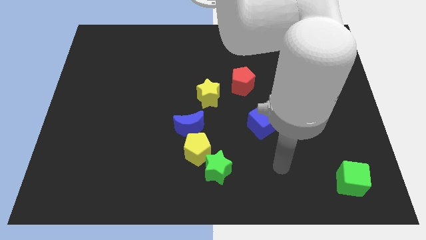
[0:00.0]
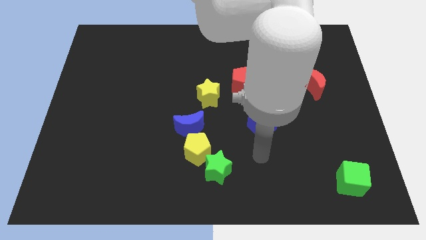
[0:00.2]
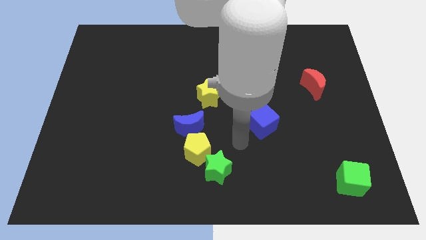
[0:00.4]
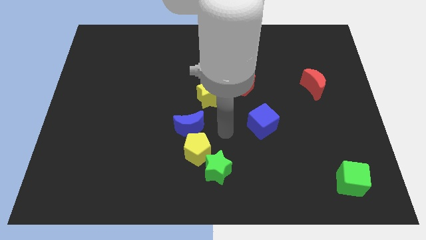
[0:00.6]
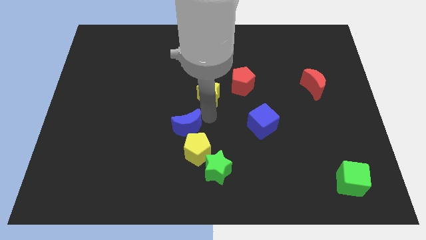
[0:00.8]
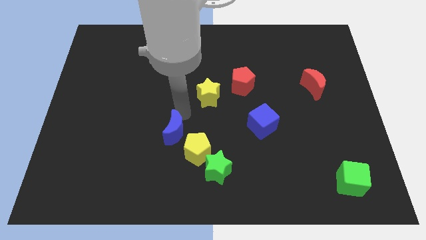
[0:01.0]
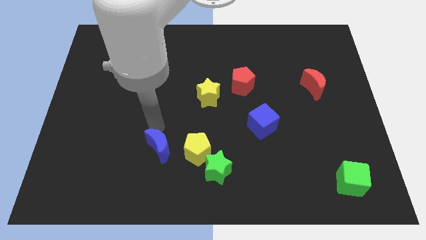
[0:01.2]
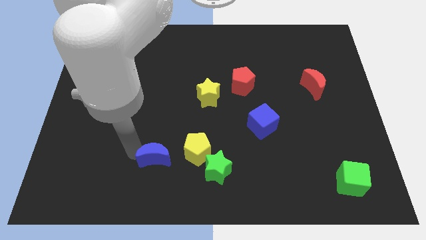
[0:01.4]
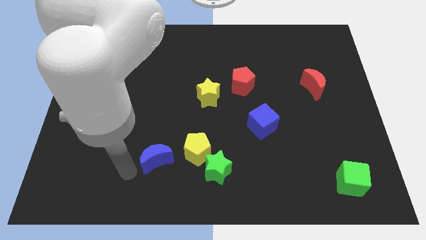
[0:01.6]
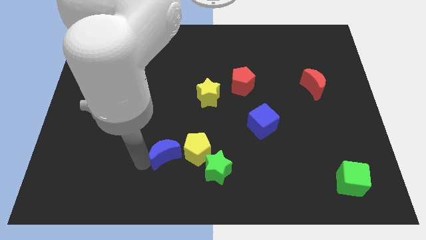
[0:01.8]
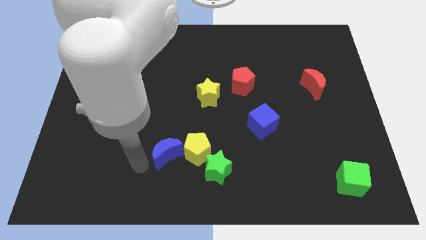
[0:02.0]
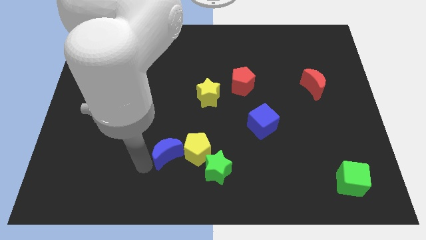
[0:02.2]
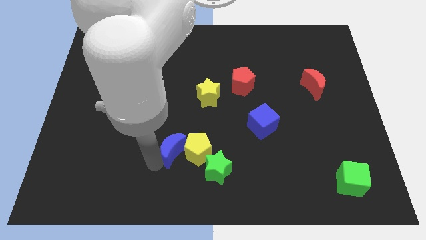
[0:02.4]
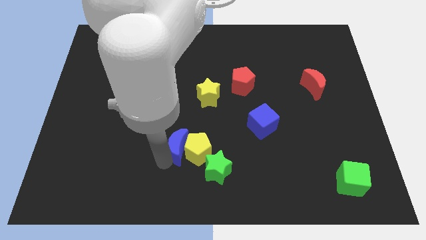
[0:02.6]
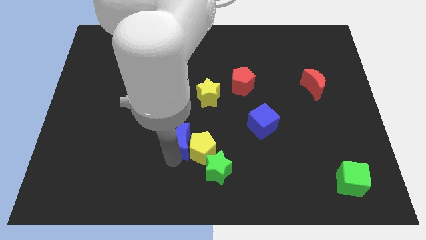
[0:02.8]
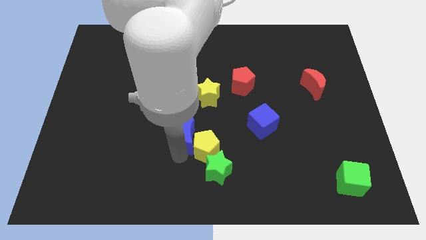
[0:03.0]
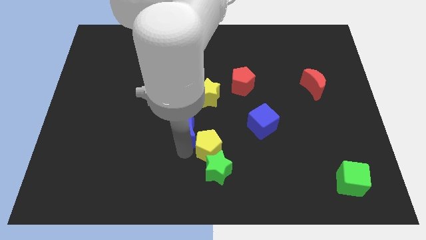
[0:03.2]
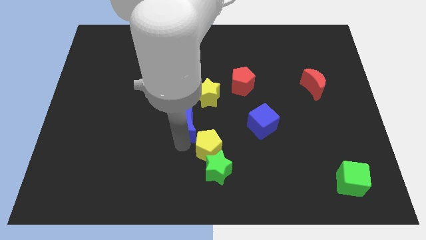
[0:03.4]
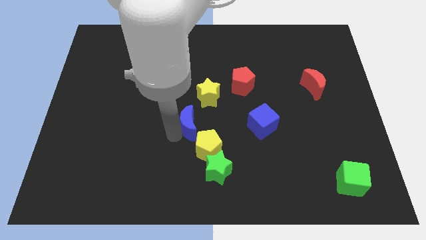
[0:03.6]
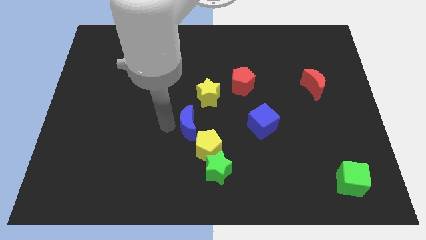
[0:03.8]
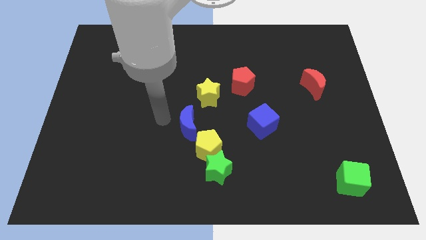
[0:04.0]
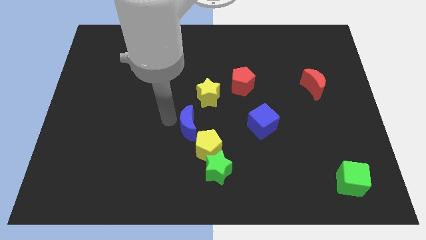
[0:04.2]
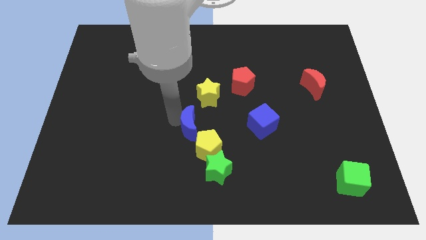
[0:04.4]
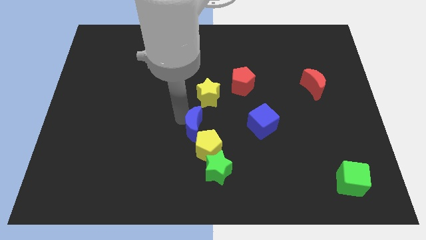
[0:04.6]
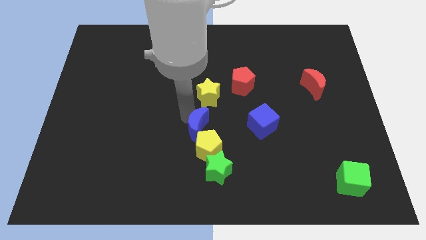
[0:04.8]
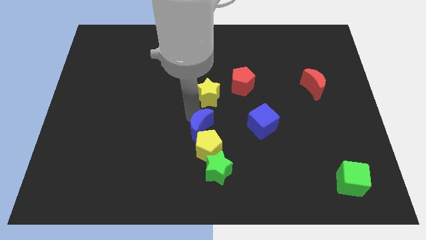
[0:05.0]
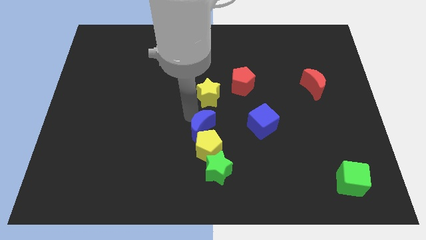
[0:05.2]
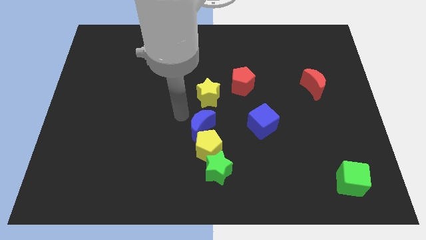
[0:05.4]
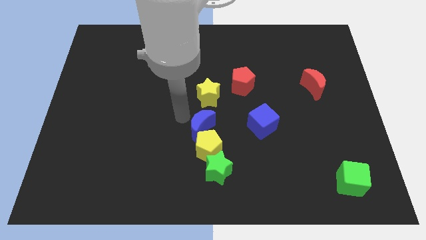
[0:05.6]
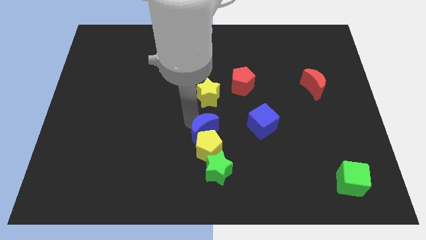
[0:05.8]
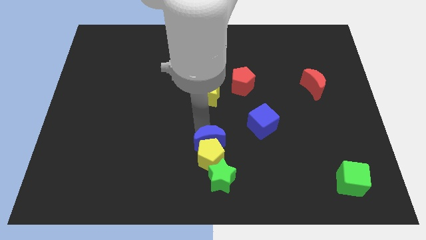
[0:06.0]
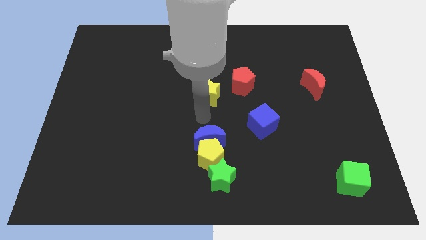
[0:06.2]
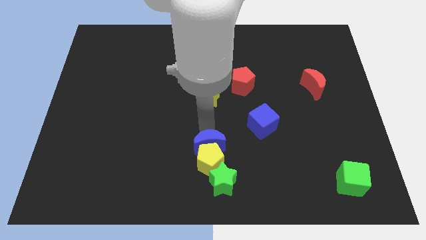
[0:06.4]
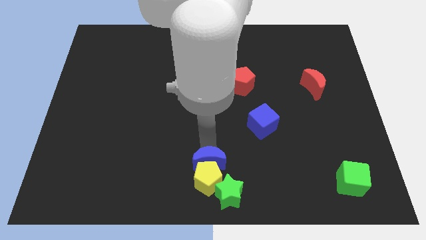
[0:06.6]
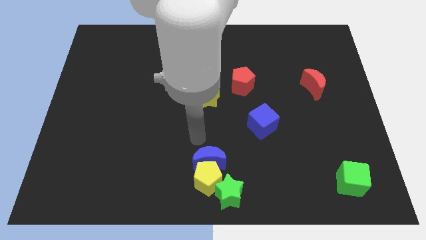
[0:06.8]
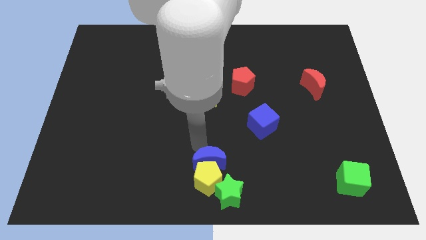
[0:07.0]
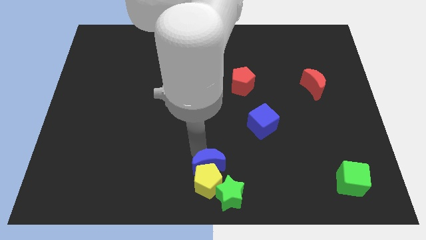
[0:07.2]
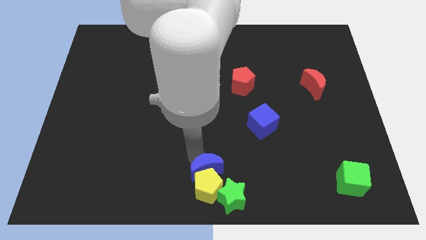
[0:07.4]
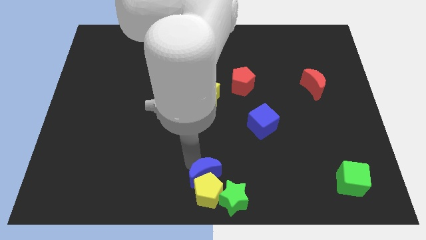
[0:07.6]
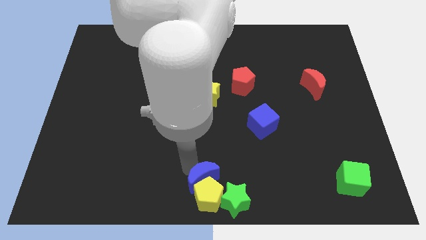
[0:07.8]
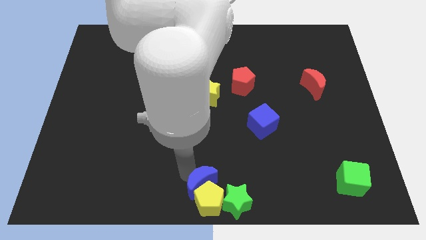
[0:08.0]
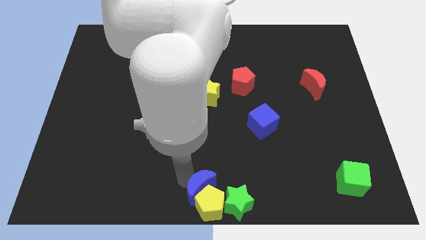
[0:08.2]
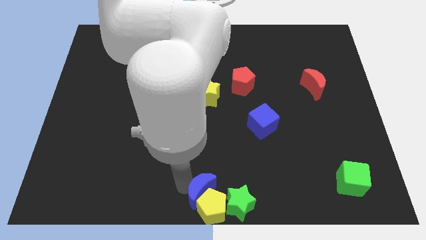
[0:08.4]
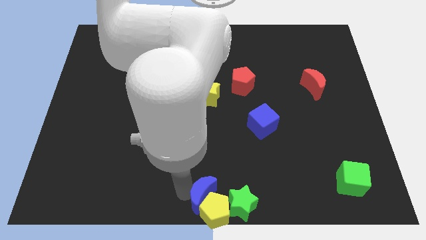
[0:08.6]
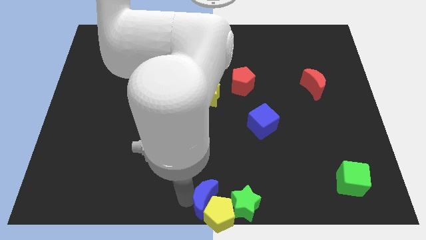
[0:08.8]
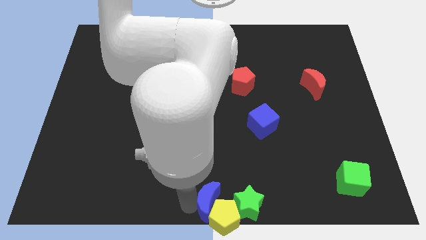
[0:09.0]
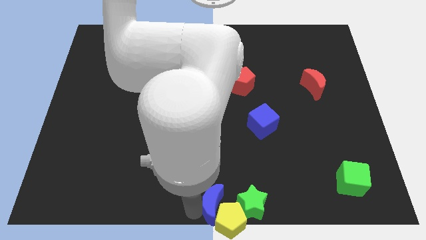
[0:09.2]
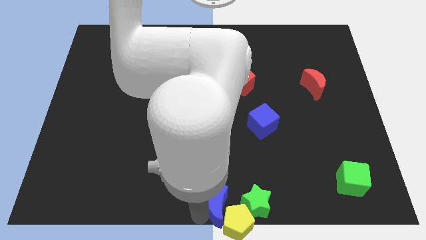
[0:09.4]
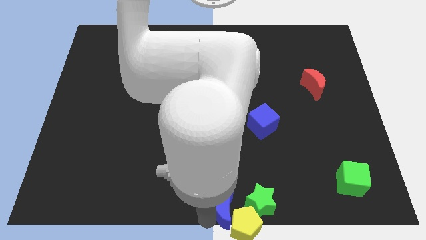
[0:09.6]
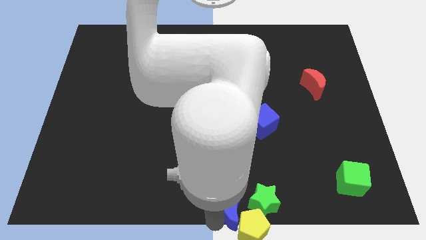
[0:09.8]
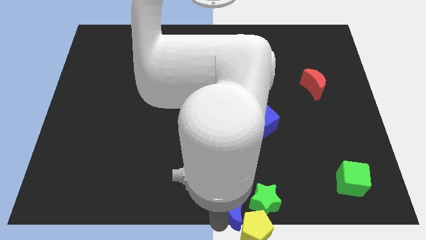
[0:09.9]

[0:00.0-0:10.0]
slide the blue moon next to the green star

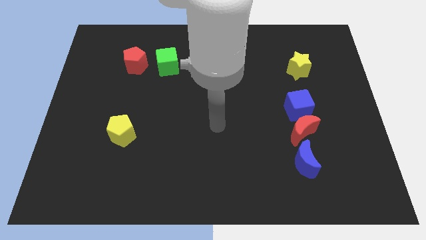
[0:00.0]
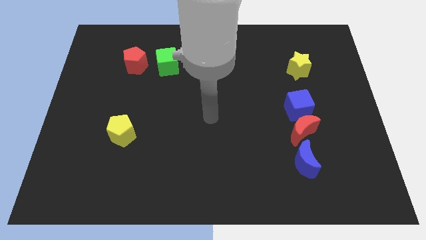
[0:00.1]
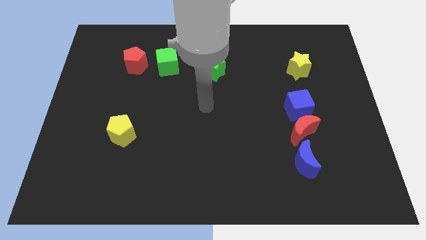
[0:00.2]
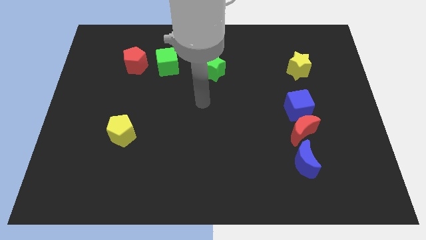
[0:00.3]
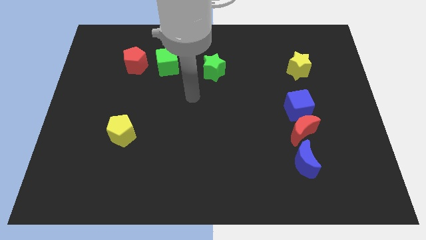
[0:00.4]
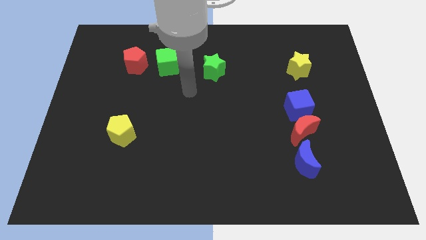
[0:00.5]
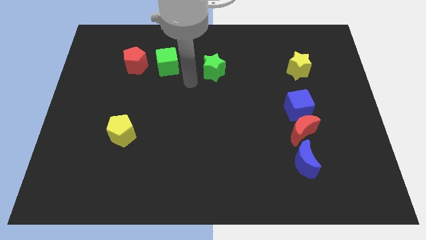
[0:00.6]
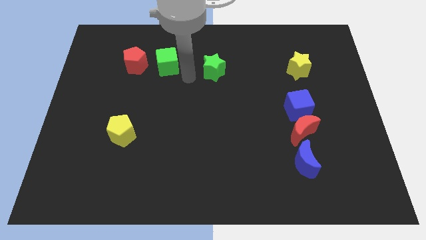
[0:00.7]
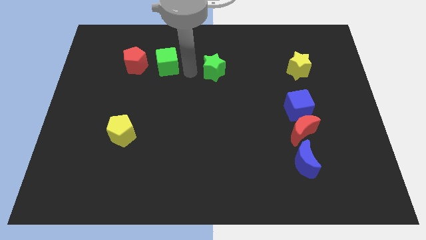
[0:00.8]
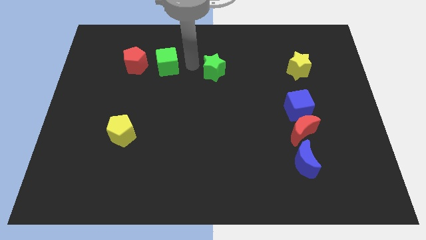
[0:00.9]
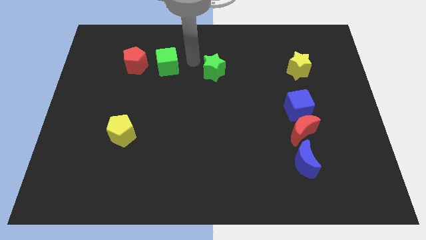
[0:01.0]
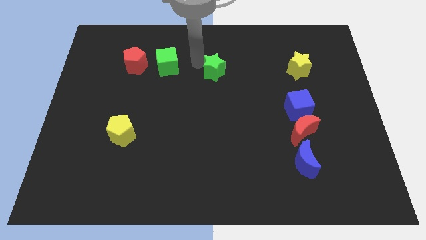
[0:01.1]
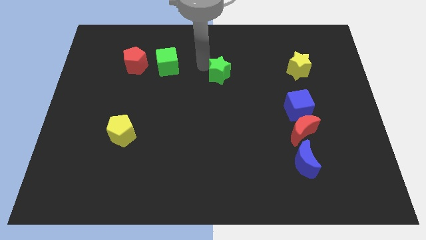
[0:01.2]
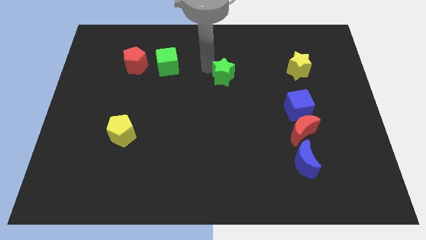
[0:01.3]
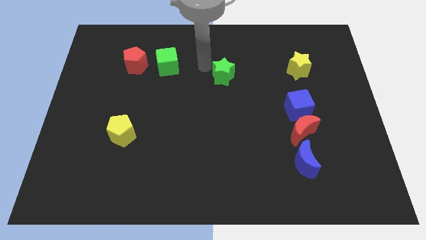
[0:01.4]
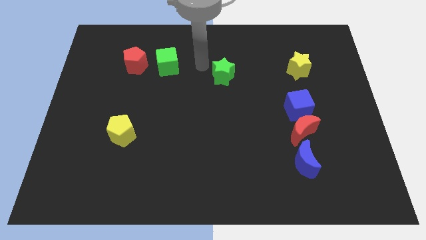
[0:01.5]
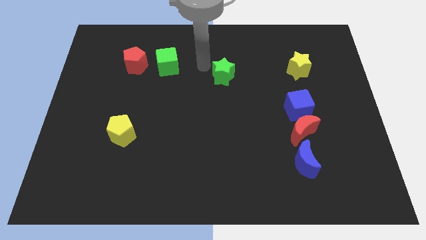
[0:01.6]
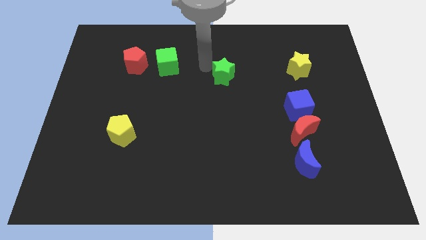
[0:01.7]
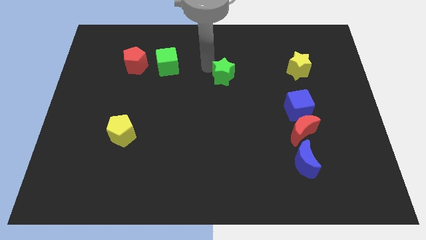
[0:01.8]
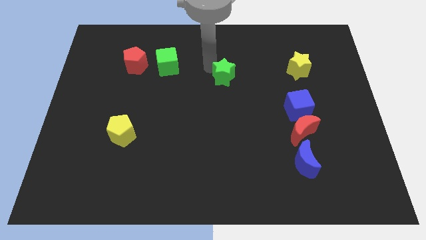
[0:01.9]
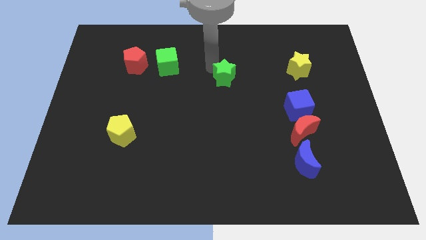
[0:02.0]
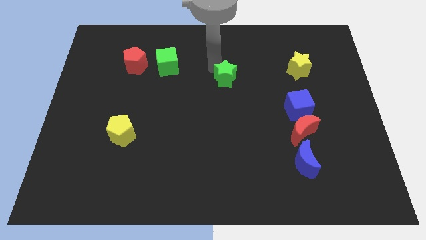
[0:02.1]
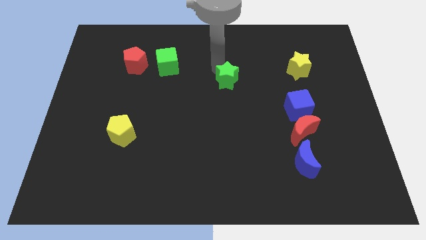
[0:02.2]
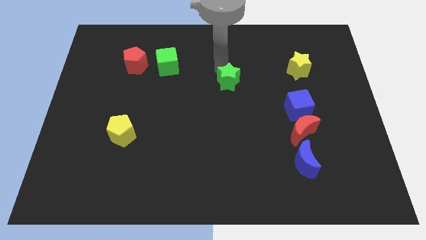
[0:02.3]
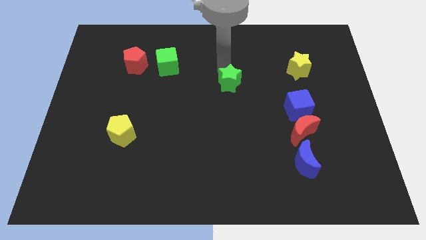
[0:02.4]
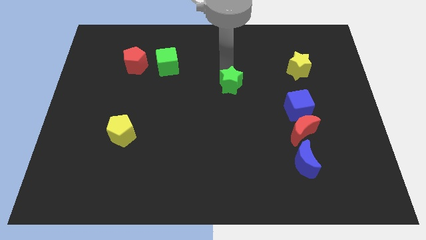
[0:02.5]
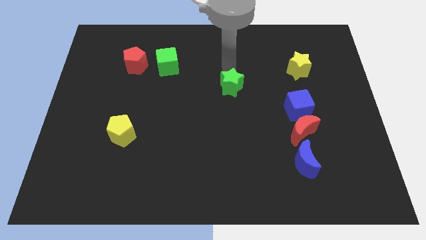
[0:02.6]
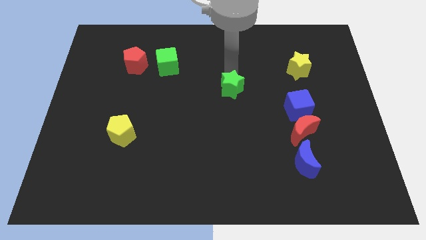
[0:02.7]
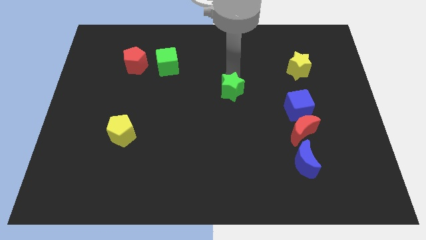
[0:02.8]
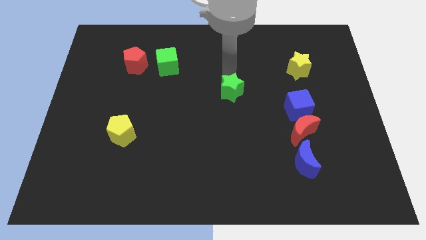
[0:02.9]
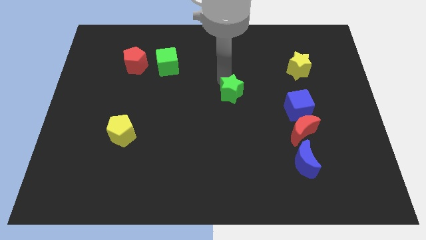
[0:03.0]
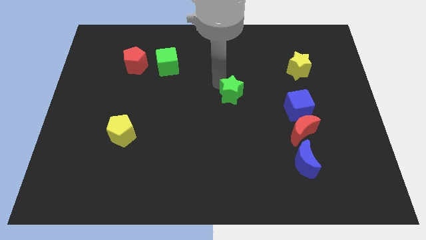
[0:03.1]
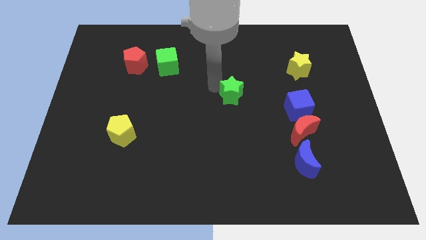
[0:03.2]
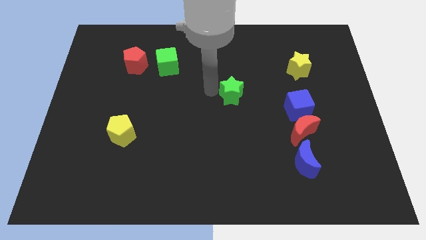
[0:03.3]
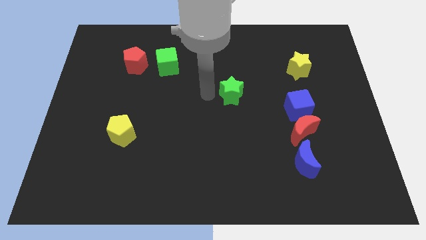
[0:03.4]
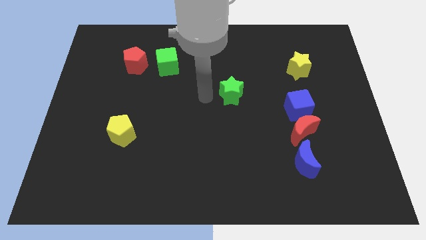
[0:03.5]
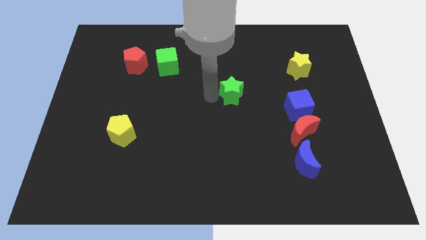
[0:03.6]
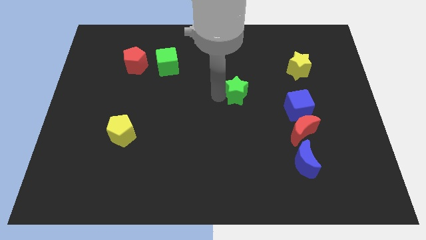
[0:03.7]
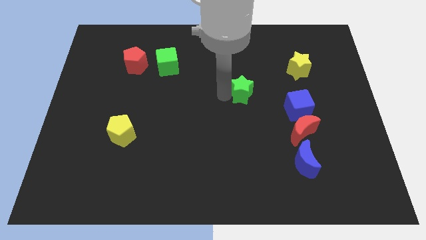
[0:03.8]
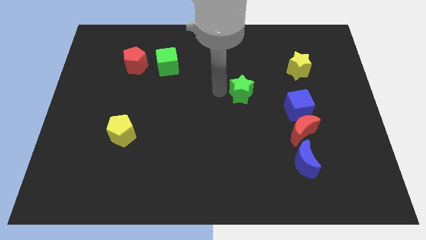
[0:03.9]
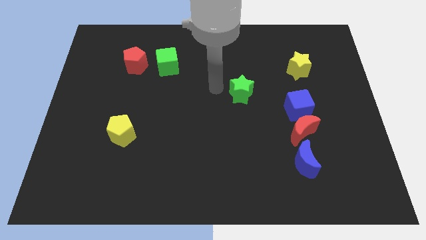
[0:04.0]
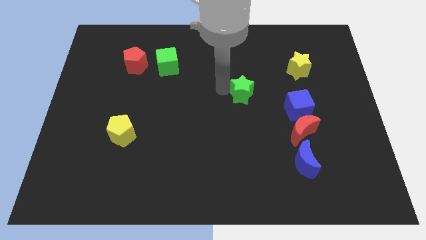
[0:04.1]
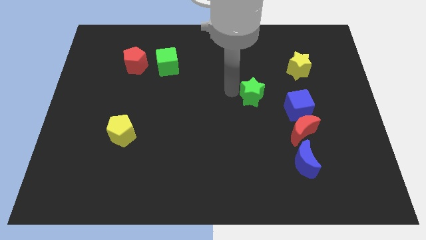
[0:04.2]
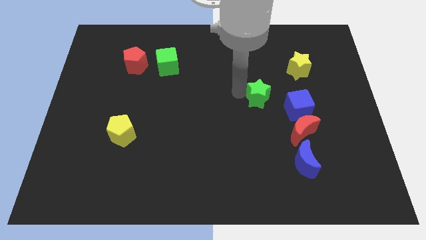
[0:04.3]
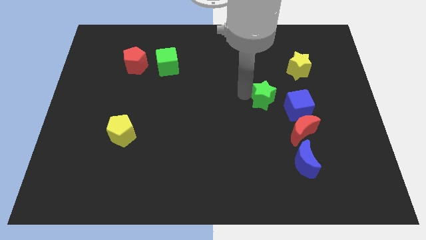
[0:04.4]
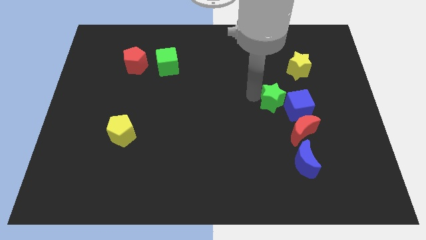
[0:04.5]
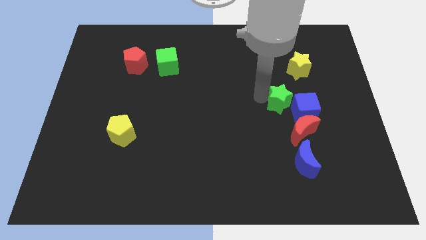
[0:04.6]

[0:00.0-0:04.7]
put the green star towards the blue cube
